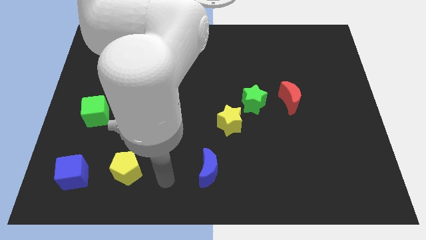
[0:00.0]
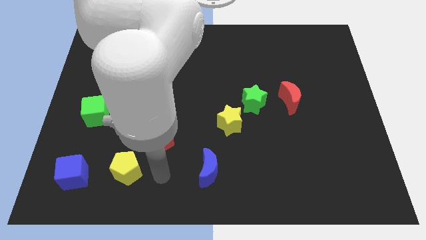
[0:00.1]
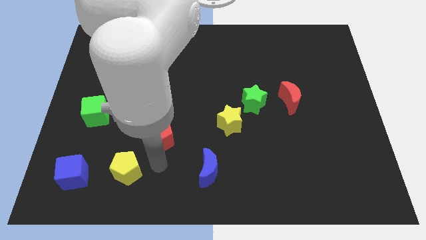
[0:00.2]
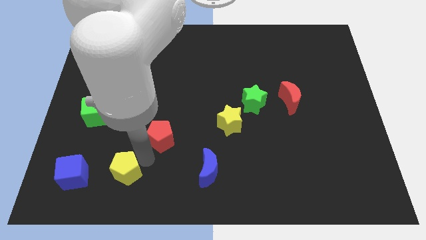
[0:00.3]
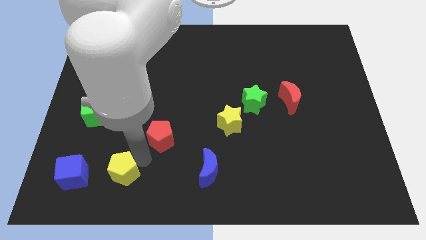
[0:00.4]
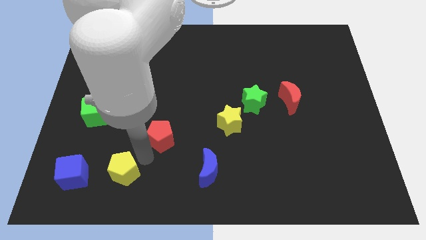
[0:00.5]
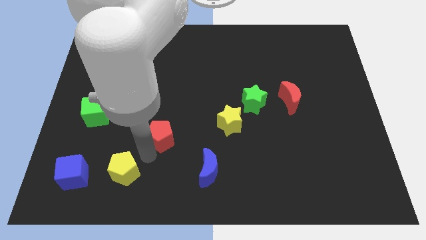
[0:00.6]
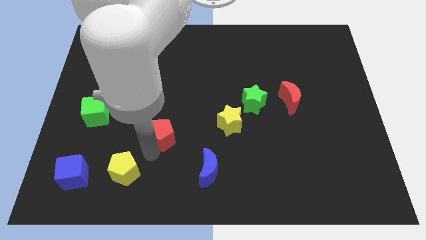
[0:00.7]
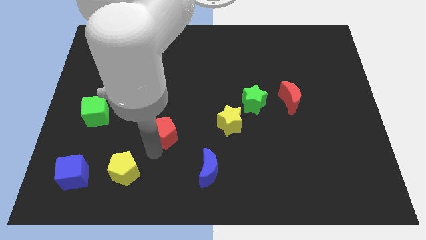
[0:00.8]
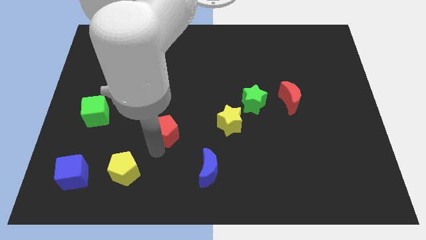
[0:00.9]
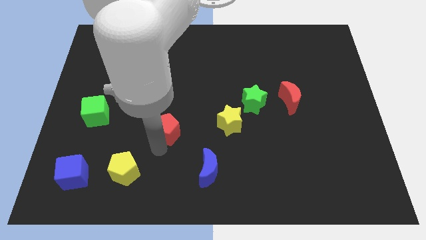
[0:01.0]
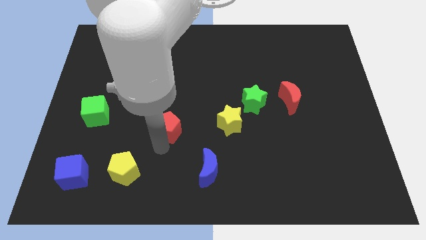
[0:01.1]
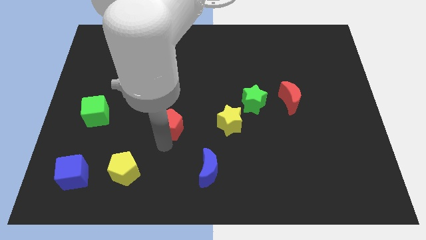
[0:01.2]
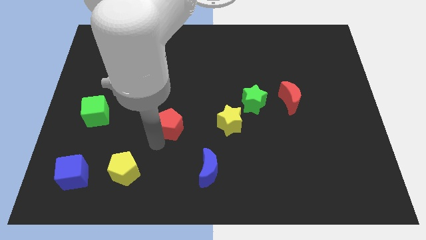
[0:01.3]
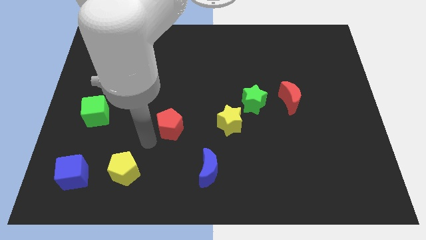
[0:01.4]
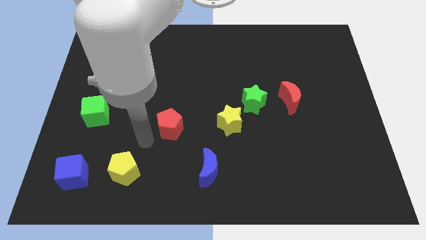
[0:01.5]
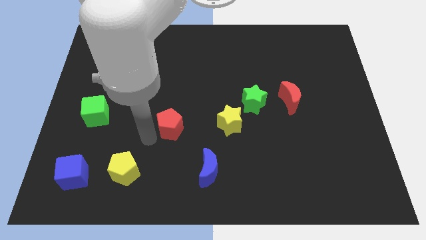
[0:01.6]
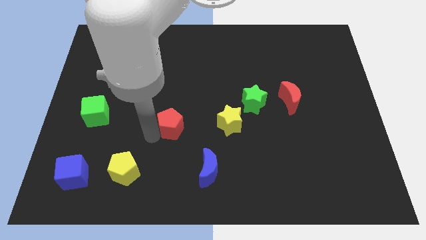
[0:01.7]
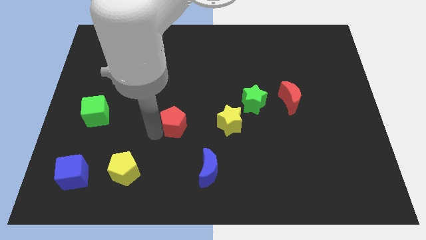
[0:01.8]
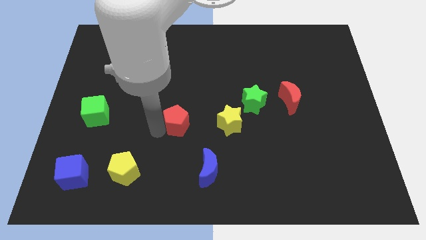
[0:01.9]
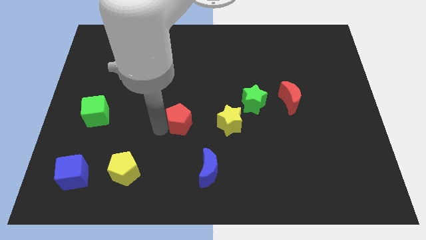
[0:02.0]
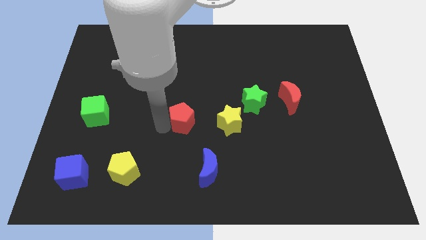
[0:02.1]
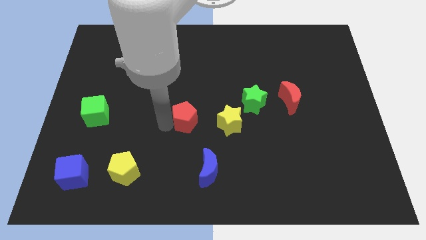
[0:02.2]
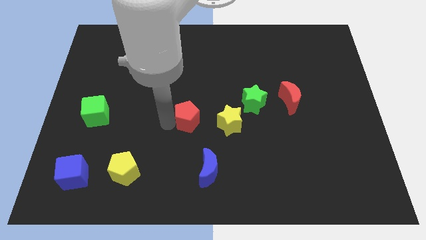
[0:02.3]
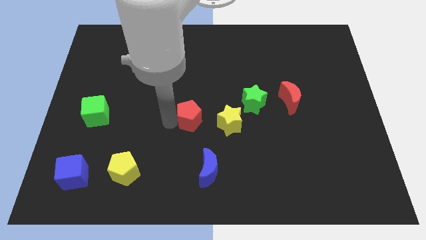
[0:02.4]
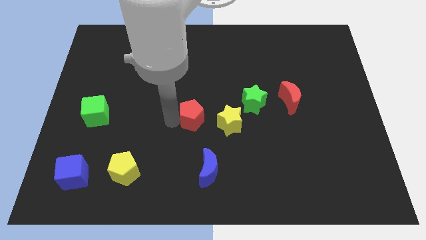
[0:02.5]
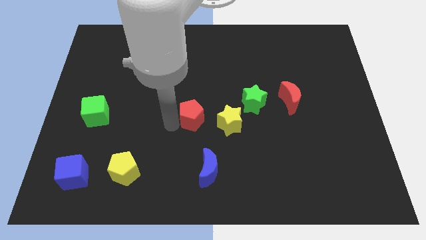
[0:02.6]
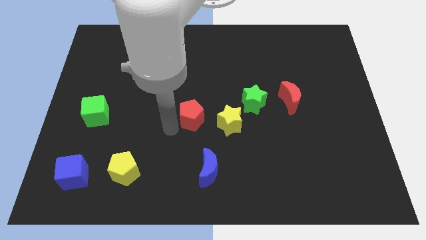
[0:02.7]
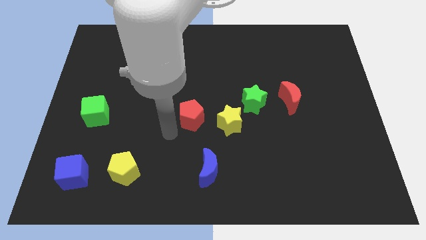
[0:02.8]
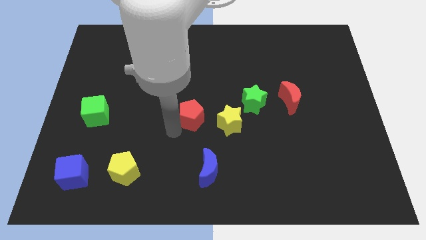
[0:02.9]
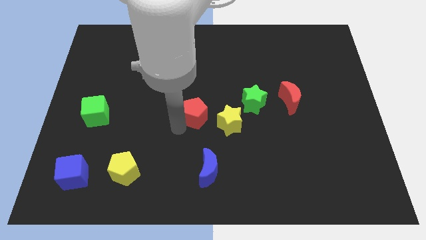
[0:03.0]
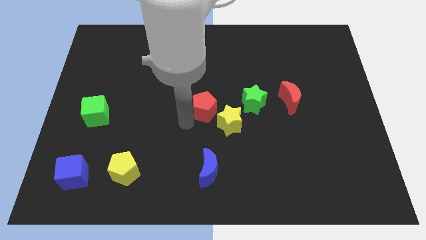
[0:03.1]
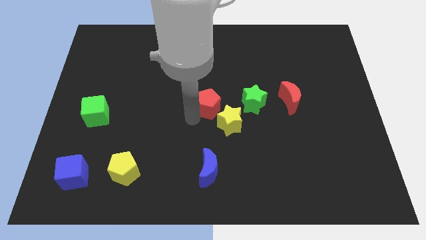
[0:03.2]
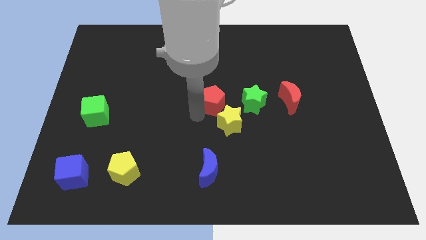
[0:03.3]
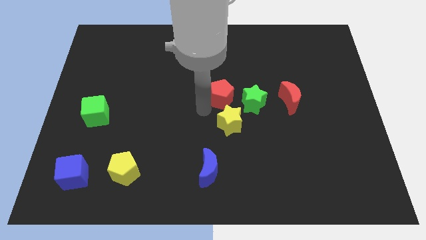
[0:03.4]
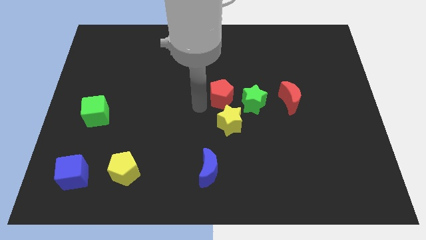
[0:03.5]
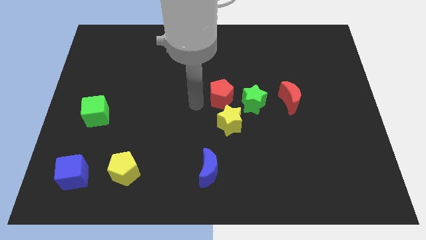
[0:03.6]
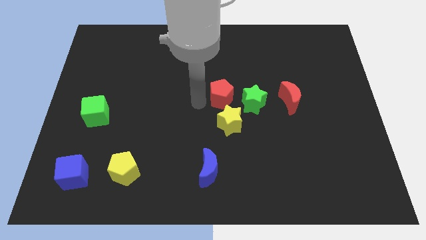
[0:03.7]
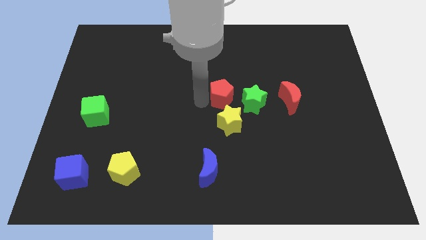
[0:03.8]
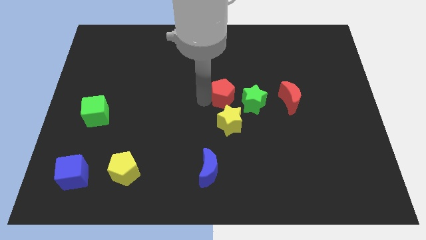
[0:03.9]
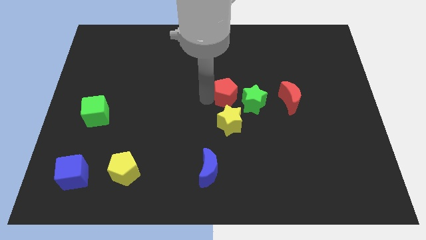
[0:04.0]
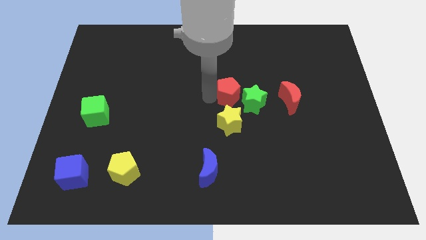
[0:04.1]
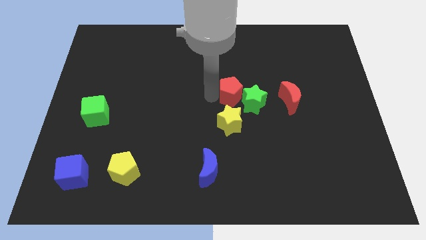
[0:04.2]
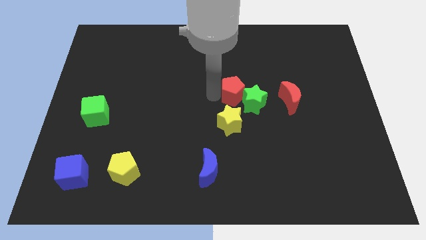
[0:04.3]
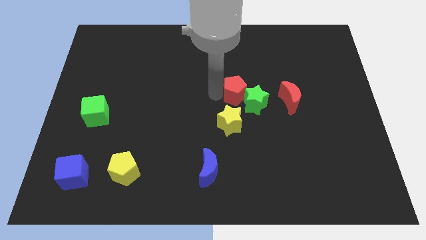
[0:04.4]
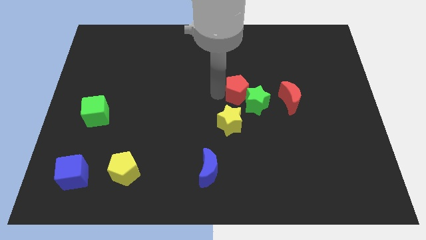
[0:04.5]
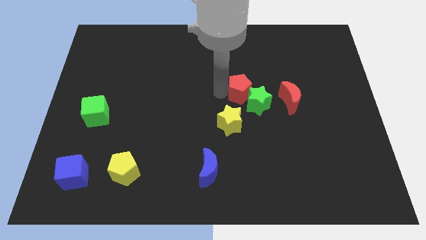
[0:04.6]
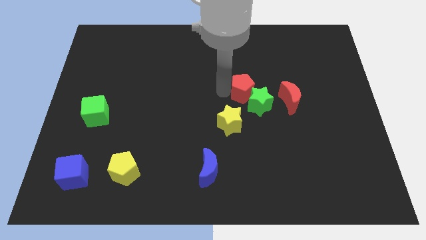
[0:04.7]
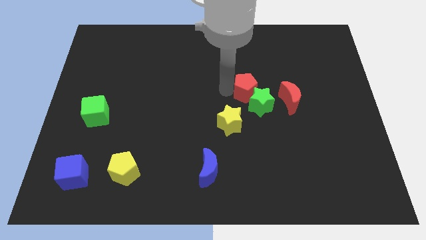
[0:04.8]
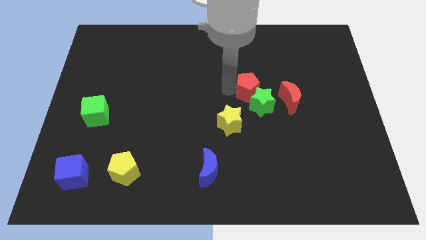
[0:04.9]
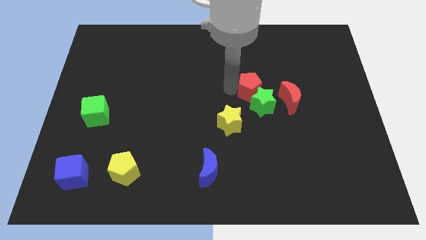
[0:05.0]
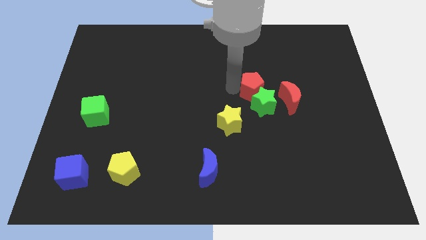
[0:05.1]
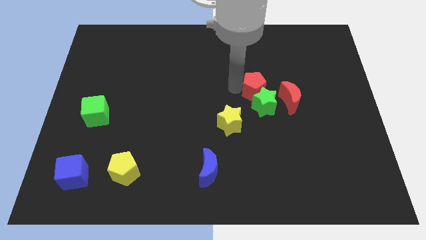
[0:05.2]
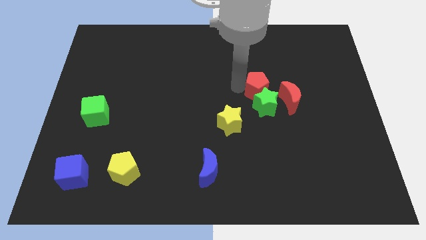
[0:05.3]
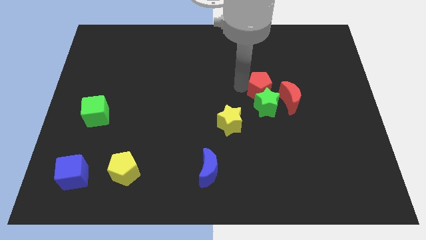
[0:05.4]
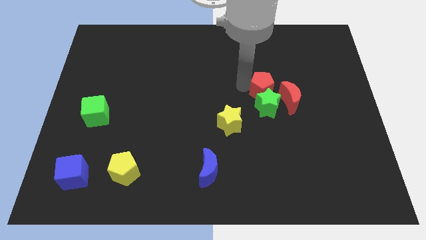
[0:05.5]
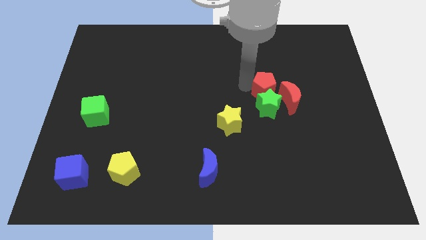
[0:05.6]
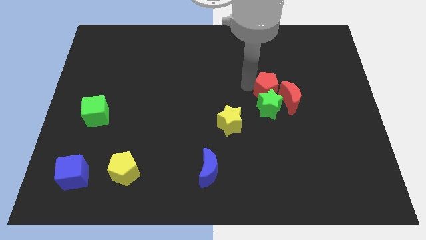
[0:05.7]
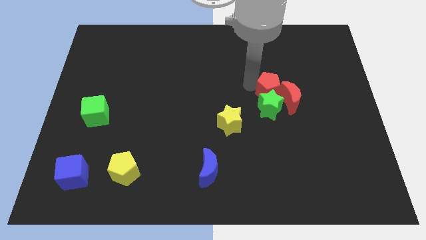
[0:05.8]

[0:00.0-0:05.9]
slide the red pentagon towards the red moon

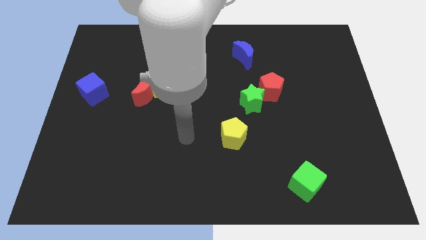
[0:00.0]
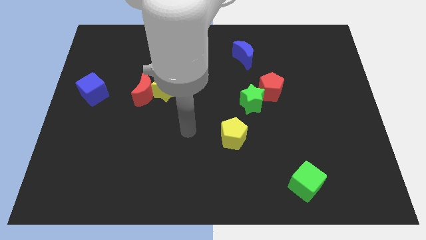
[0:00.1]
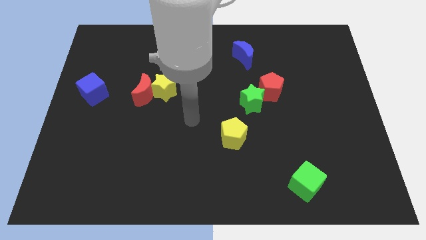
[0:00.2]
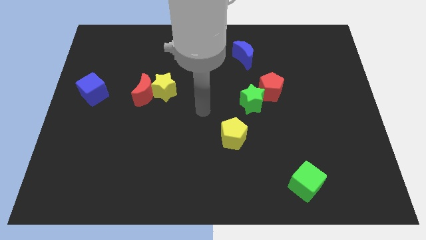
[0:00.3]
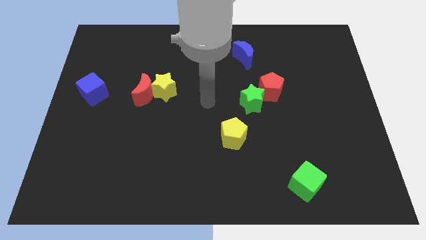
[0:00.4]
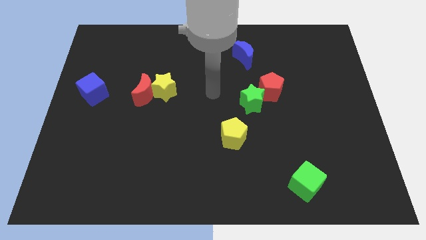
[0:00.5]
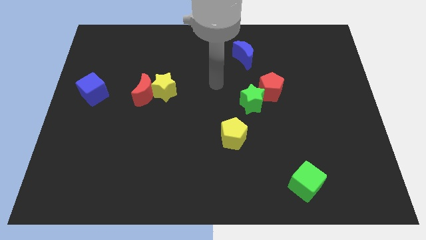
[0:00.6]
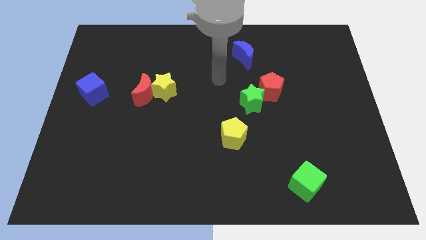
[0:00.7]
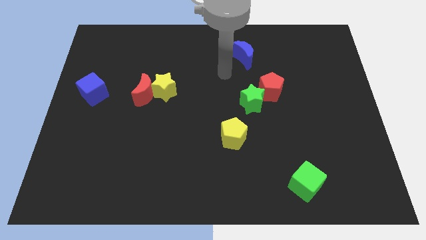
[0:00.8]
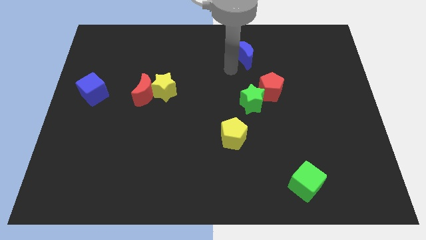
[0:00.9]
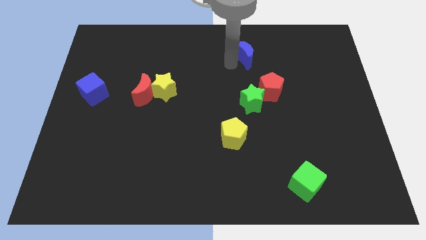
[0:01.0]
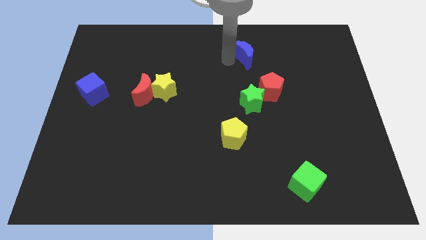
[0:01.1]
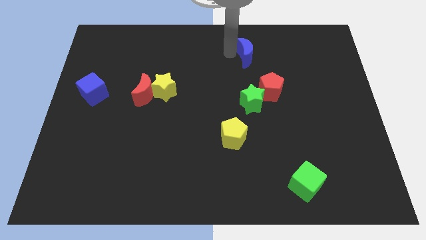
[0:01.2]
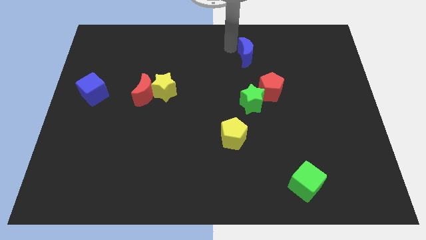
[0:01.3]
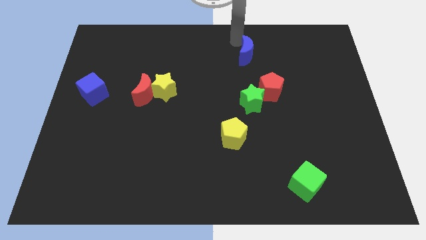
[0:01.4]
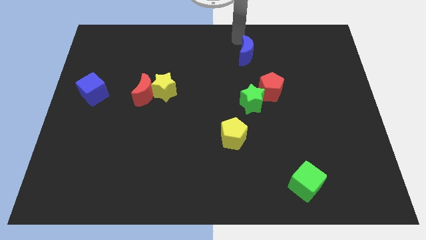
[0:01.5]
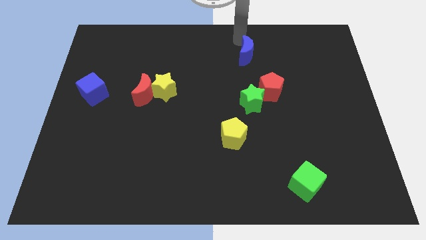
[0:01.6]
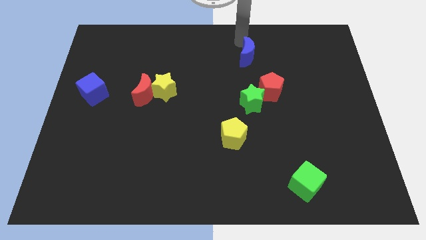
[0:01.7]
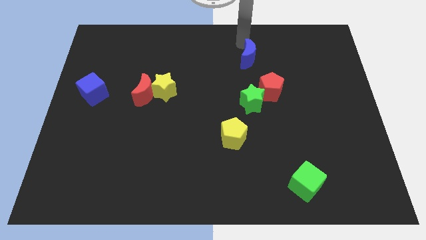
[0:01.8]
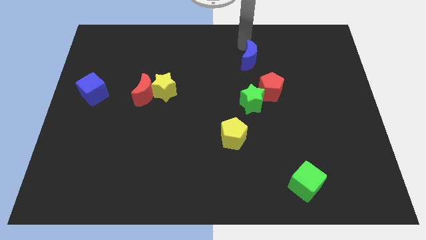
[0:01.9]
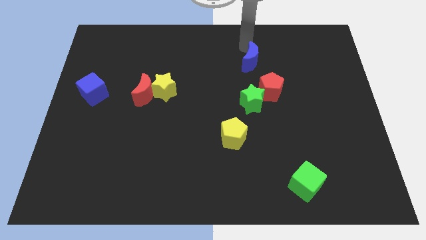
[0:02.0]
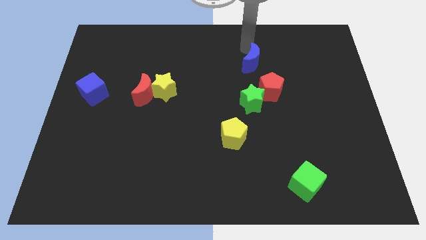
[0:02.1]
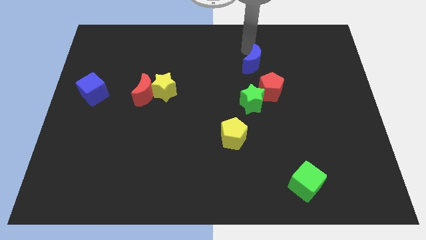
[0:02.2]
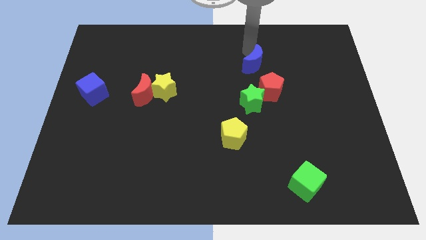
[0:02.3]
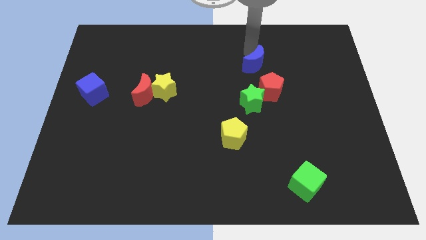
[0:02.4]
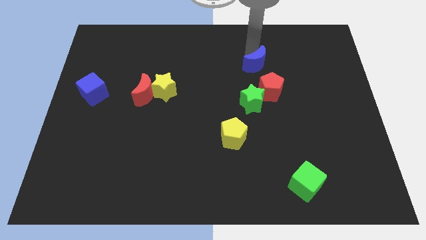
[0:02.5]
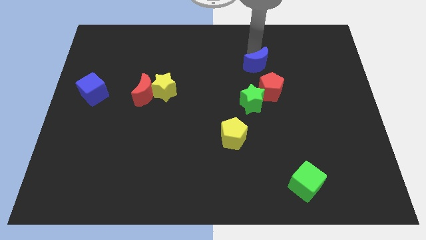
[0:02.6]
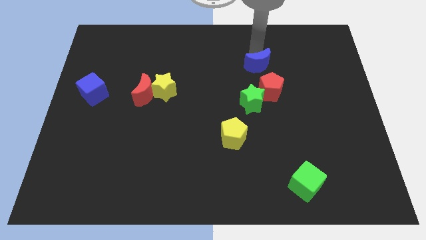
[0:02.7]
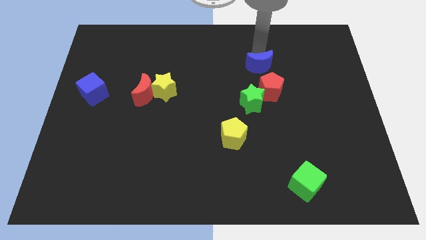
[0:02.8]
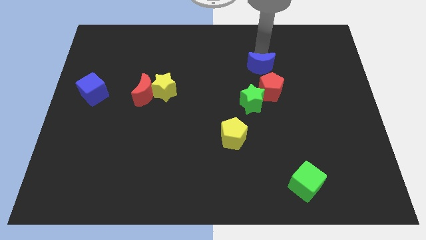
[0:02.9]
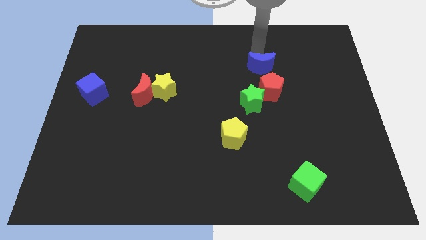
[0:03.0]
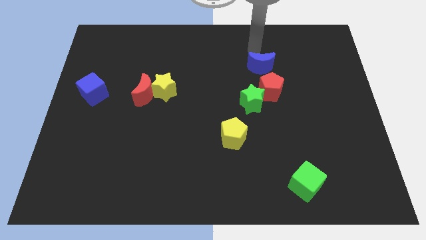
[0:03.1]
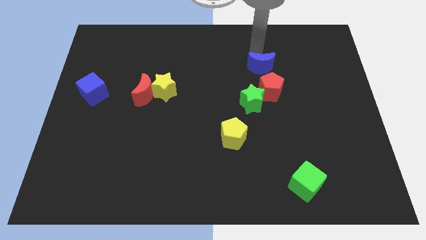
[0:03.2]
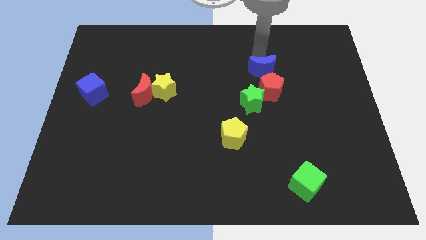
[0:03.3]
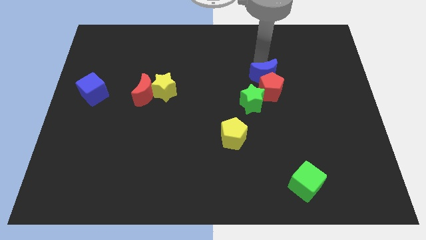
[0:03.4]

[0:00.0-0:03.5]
push the blue moon towards the red pentagon
